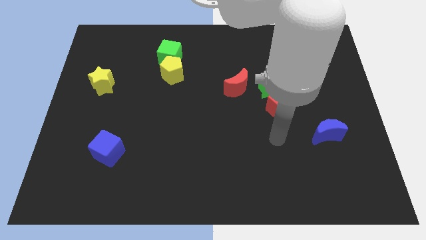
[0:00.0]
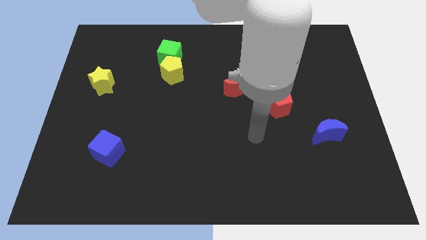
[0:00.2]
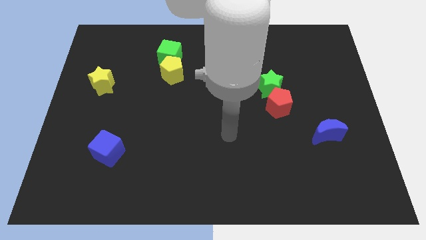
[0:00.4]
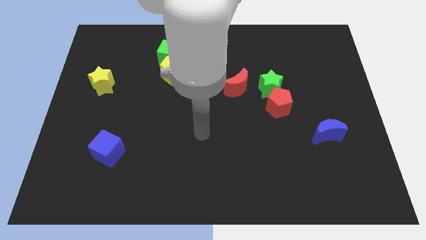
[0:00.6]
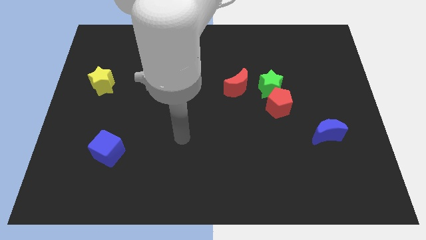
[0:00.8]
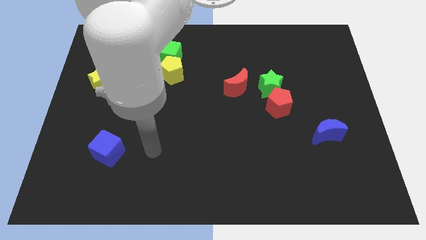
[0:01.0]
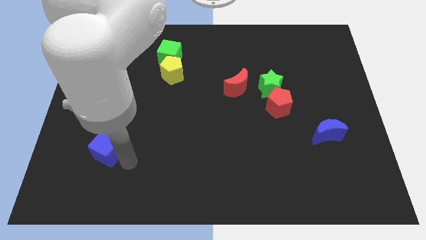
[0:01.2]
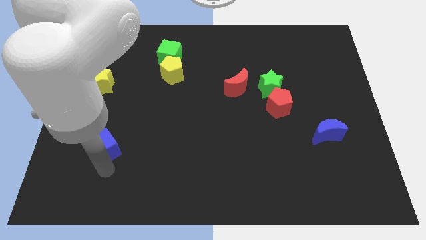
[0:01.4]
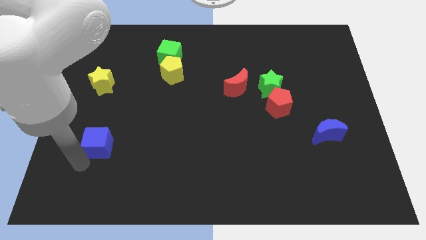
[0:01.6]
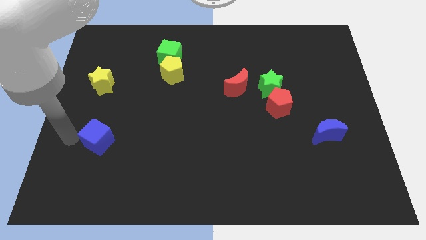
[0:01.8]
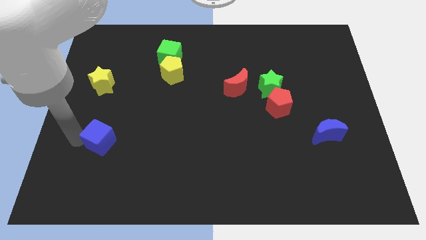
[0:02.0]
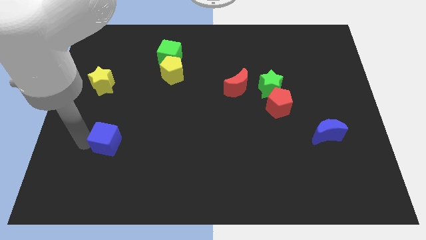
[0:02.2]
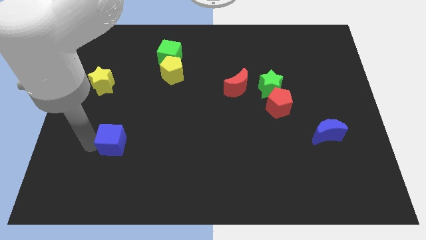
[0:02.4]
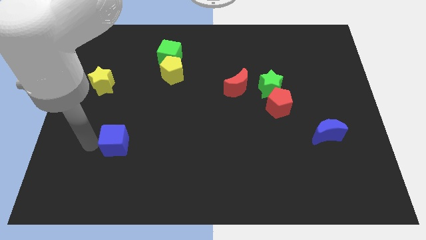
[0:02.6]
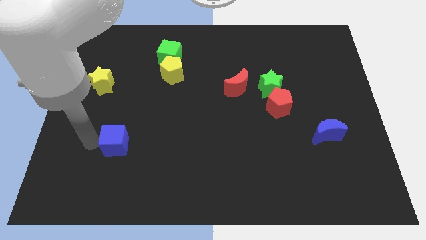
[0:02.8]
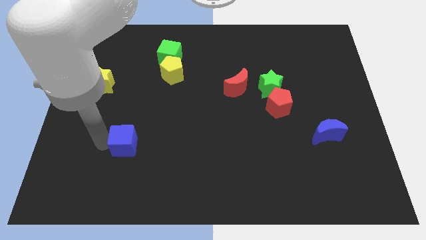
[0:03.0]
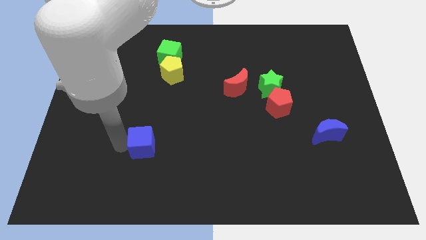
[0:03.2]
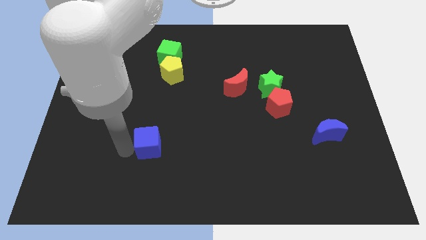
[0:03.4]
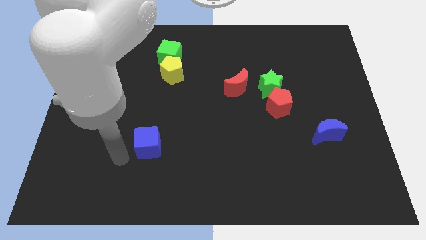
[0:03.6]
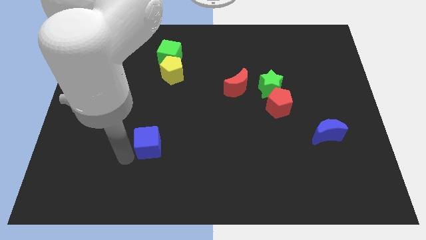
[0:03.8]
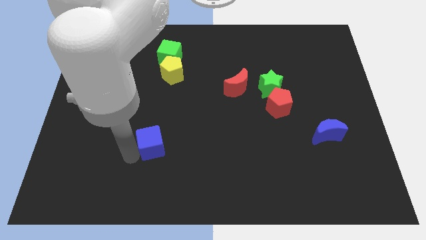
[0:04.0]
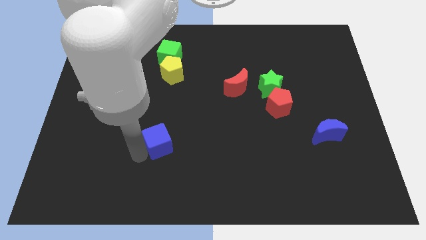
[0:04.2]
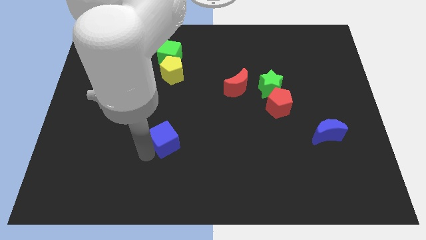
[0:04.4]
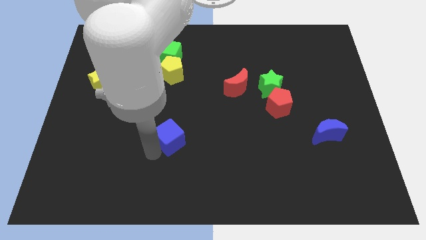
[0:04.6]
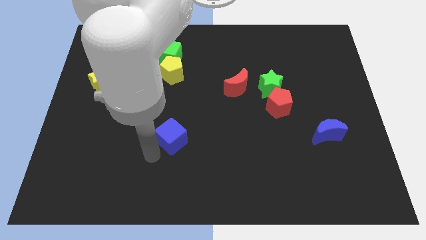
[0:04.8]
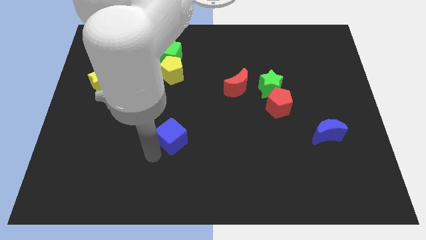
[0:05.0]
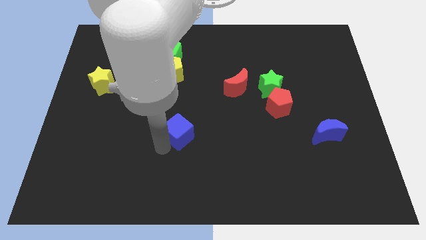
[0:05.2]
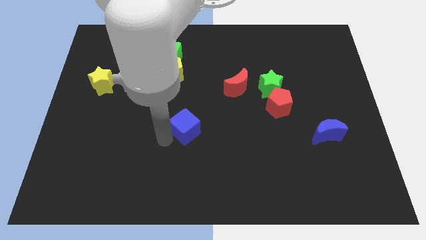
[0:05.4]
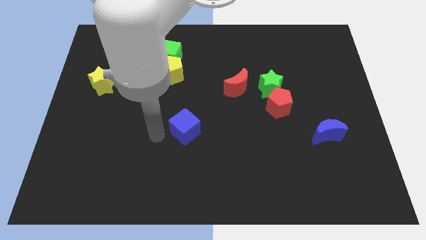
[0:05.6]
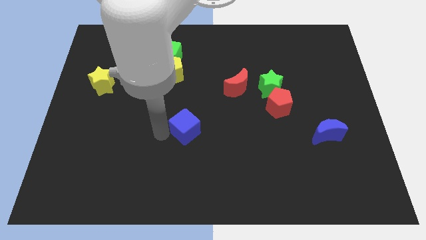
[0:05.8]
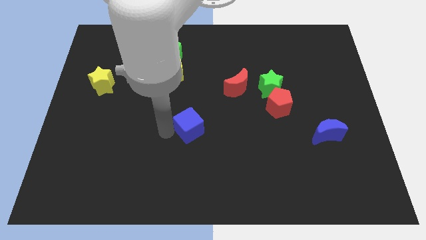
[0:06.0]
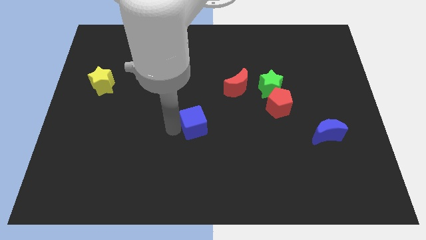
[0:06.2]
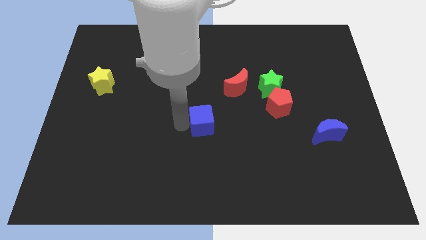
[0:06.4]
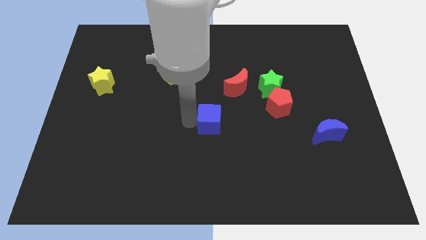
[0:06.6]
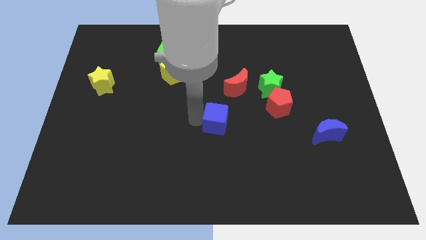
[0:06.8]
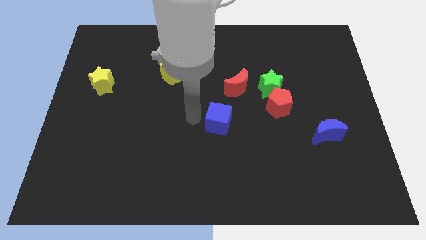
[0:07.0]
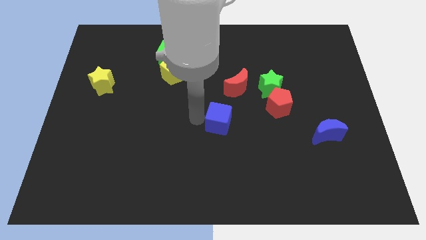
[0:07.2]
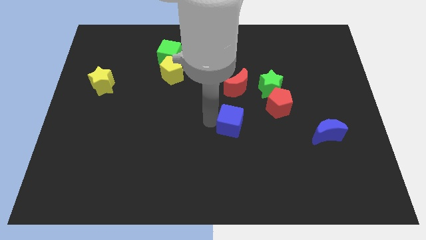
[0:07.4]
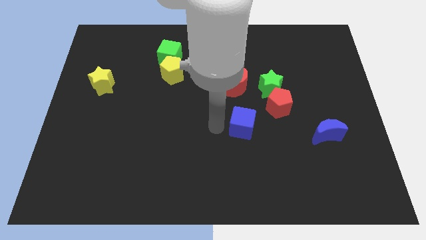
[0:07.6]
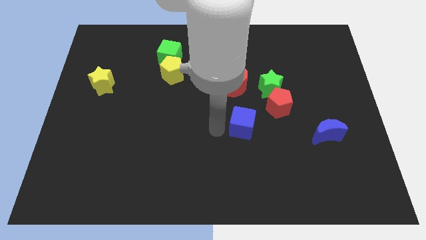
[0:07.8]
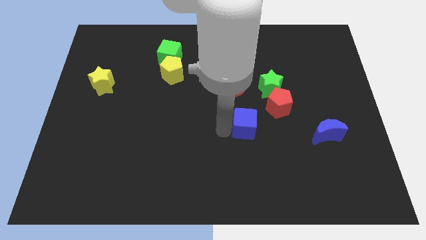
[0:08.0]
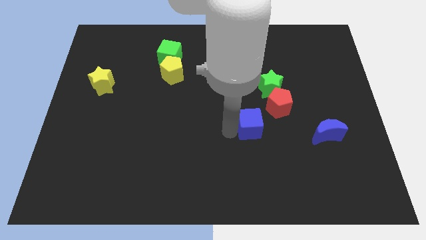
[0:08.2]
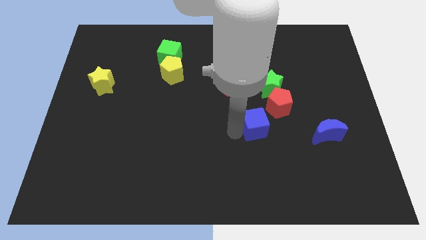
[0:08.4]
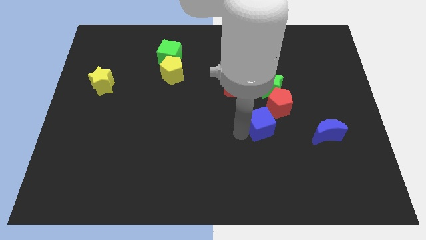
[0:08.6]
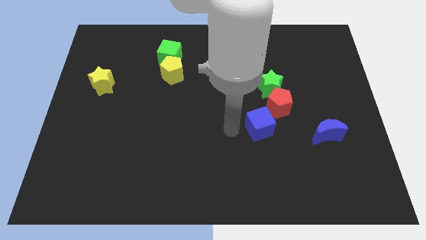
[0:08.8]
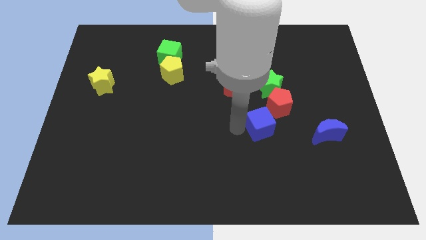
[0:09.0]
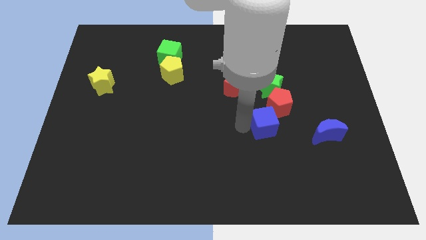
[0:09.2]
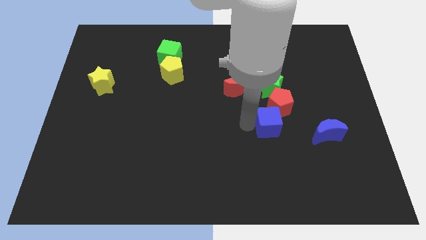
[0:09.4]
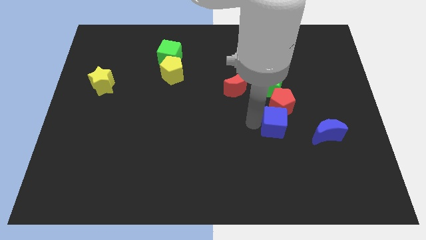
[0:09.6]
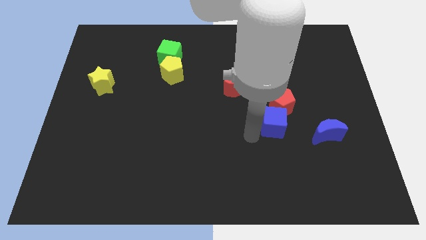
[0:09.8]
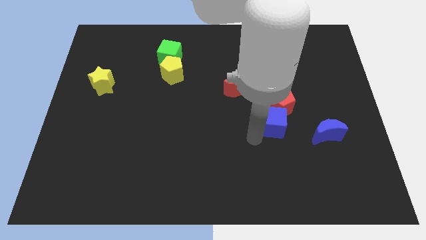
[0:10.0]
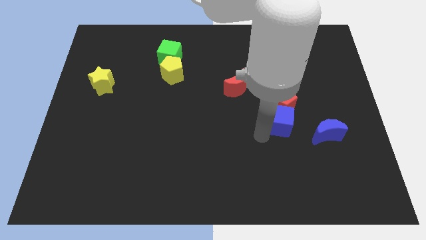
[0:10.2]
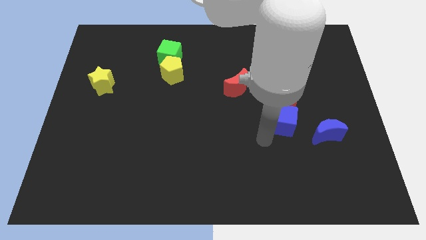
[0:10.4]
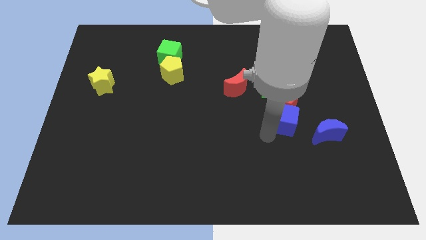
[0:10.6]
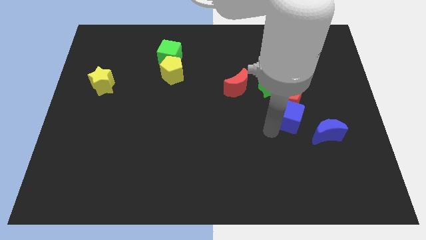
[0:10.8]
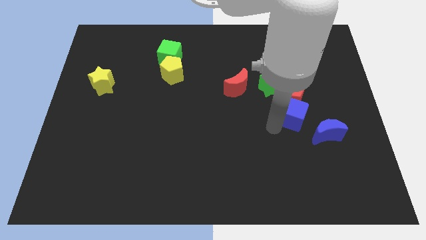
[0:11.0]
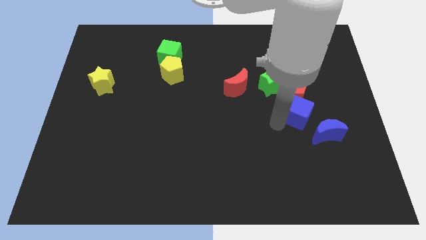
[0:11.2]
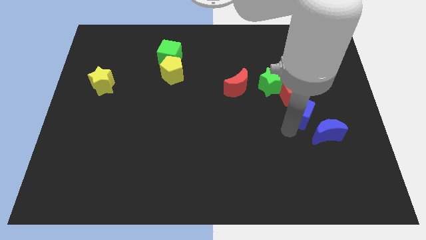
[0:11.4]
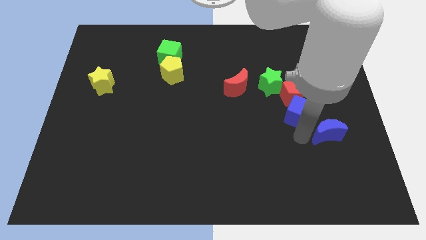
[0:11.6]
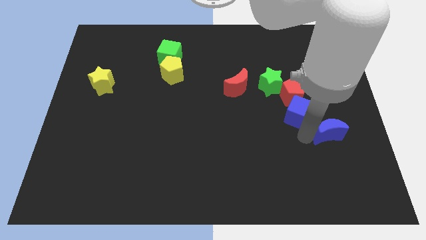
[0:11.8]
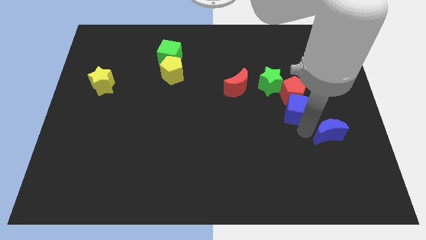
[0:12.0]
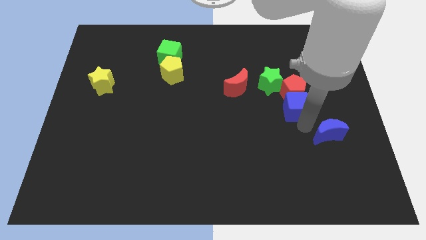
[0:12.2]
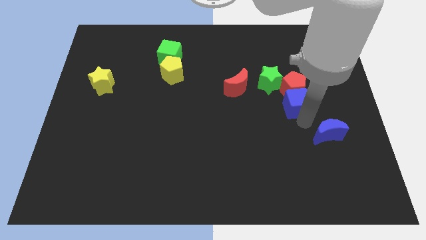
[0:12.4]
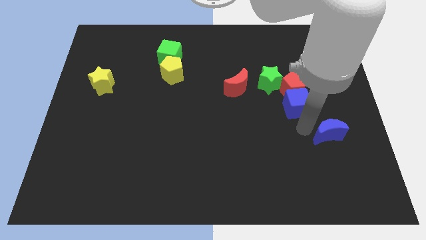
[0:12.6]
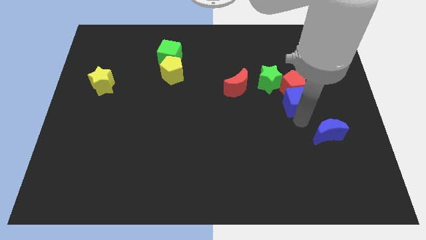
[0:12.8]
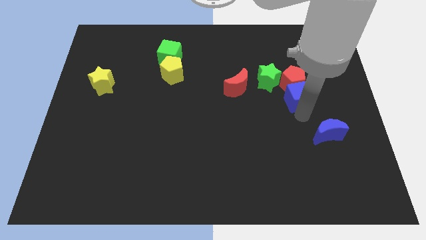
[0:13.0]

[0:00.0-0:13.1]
put the blue cube to the right side of the red moon
